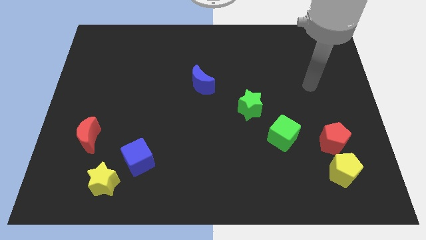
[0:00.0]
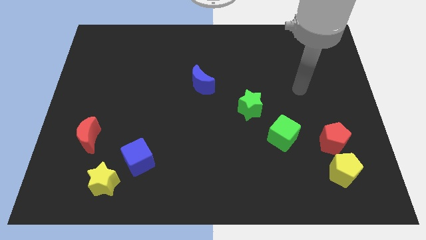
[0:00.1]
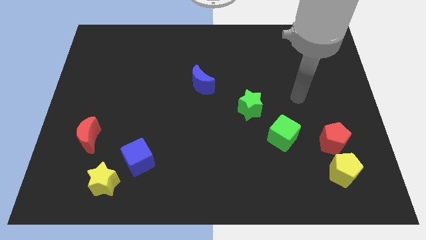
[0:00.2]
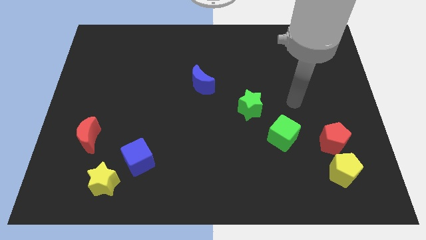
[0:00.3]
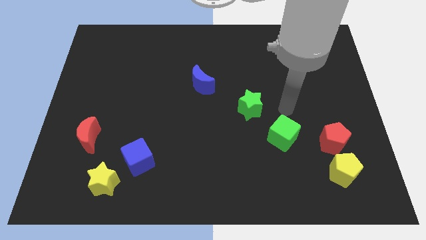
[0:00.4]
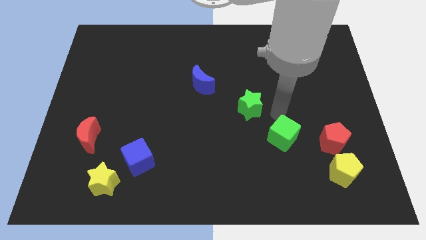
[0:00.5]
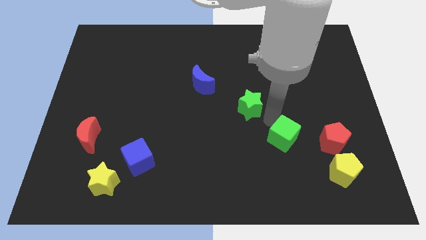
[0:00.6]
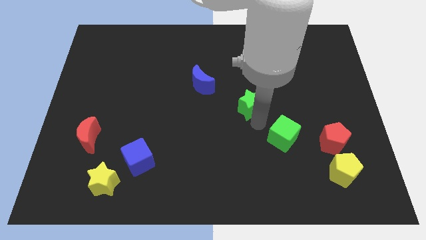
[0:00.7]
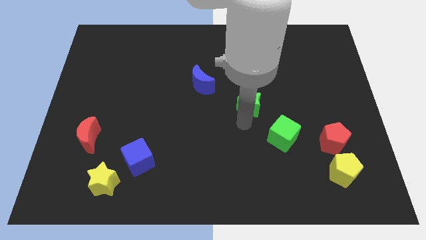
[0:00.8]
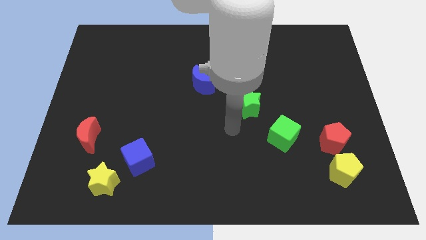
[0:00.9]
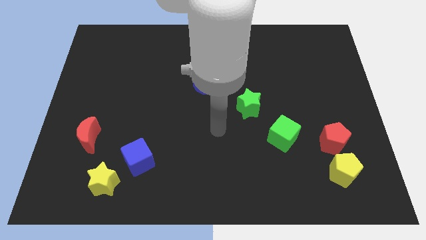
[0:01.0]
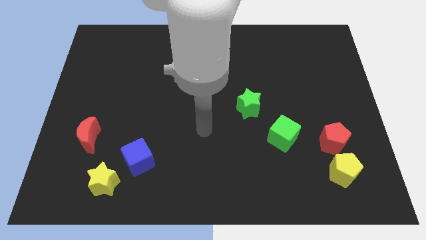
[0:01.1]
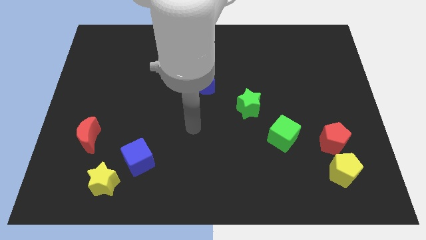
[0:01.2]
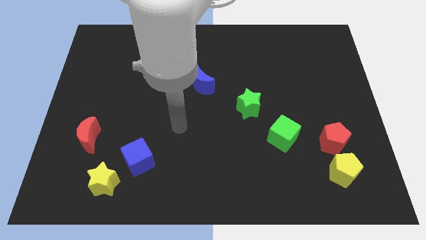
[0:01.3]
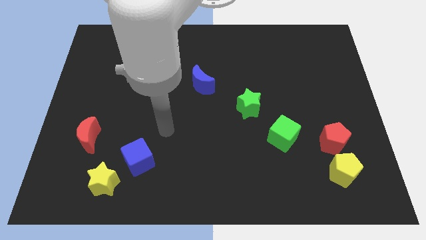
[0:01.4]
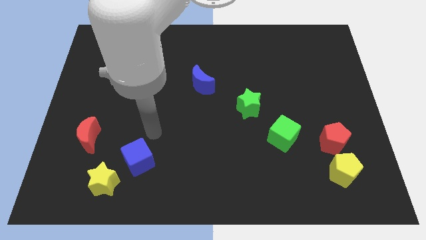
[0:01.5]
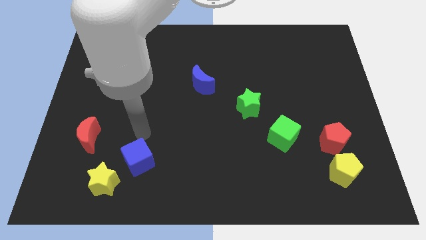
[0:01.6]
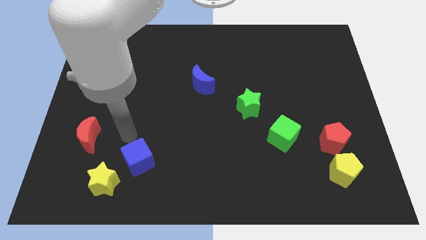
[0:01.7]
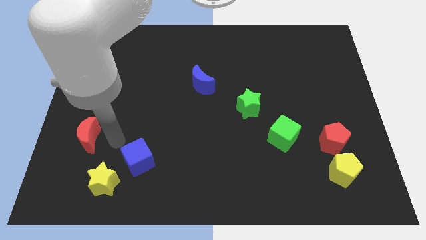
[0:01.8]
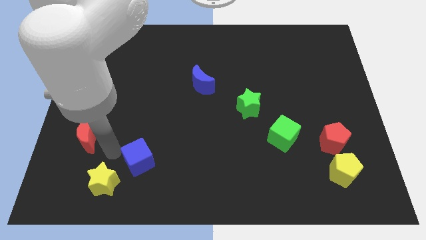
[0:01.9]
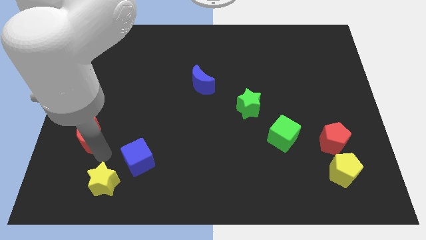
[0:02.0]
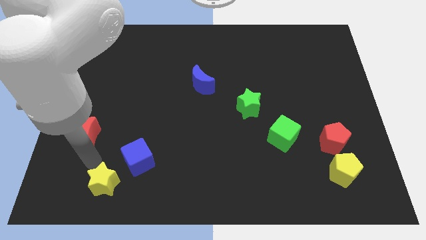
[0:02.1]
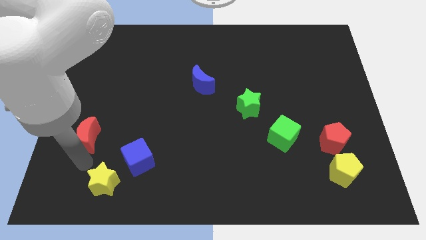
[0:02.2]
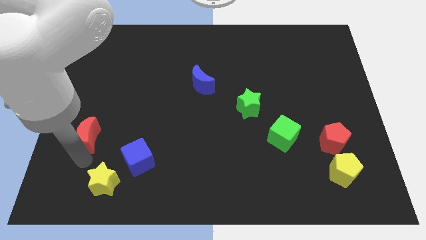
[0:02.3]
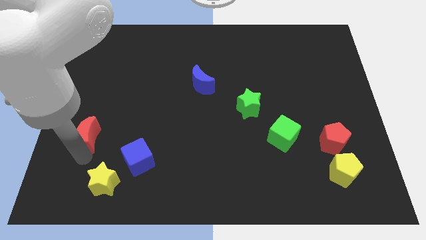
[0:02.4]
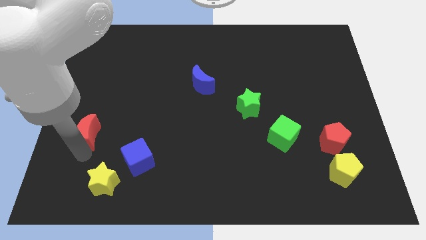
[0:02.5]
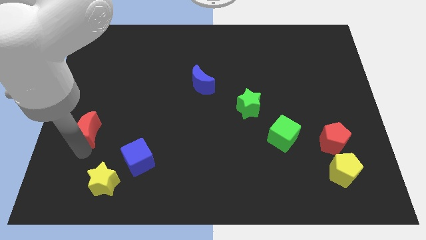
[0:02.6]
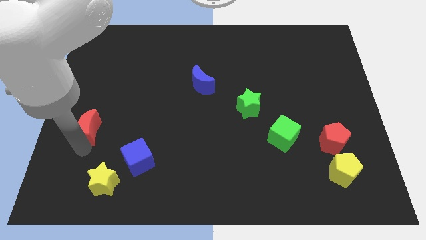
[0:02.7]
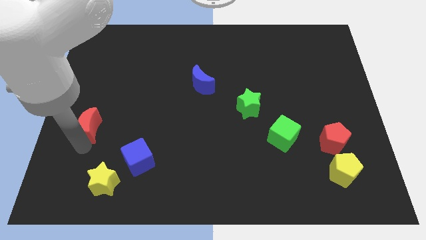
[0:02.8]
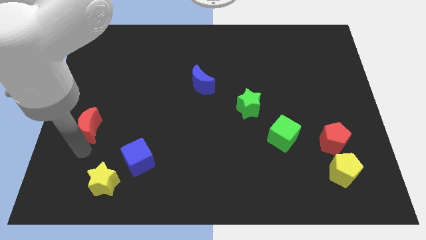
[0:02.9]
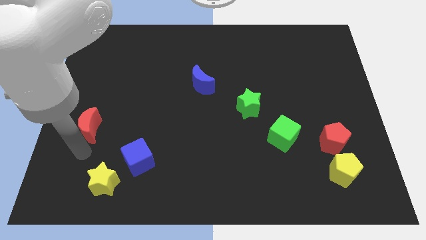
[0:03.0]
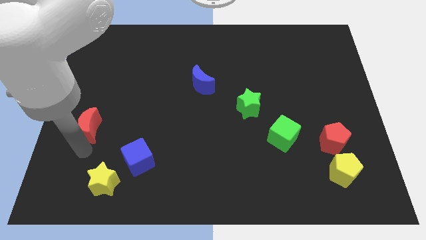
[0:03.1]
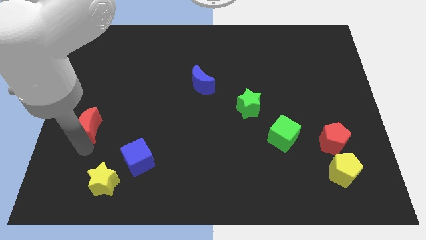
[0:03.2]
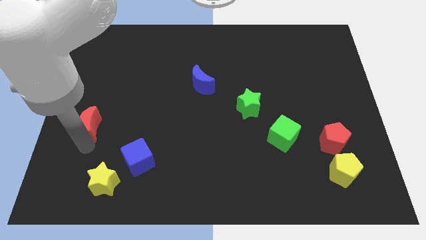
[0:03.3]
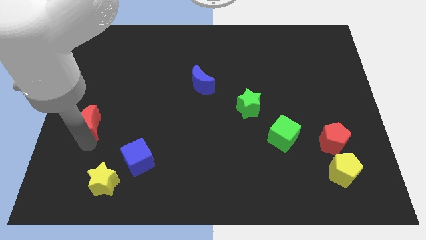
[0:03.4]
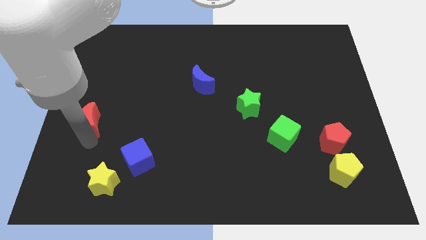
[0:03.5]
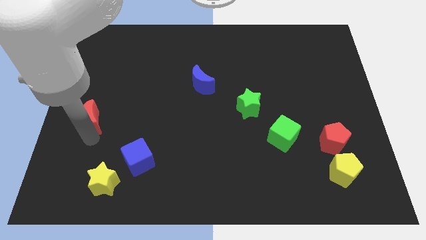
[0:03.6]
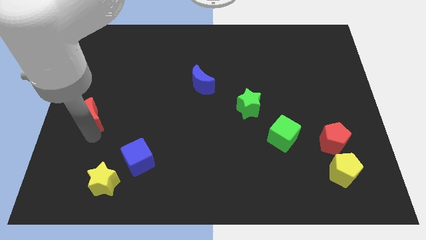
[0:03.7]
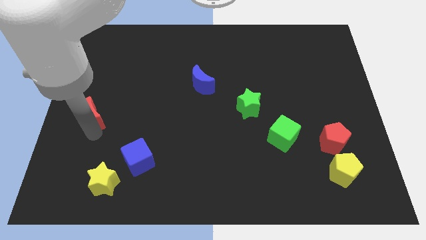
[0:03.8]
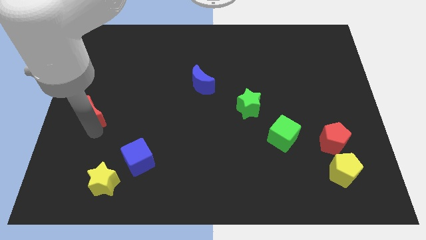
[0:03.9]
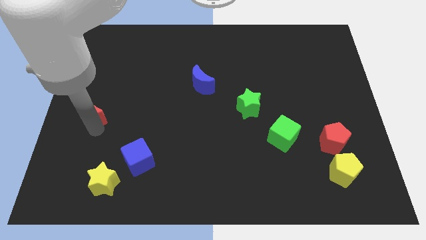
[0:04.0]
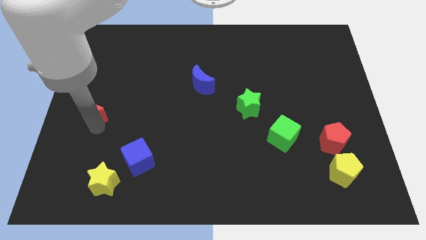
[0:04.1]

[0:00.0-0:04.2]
slide the red moon up a little

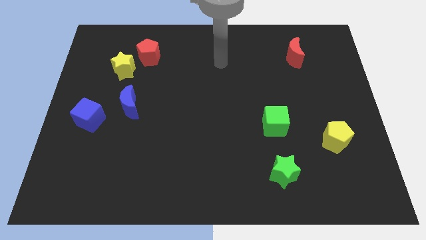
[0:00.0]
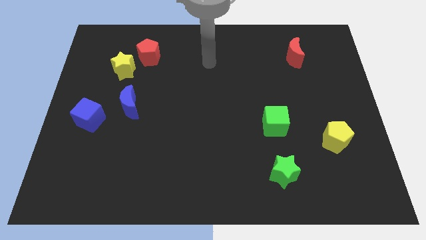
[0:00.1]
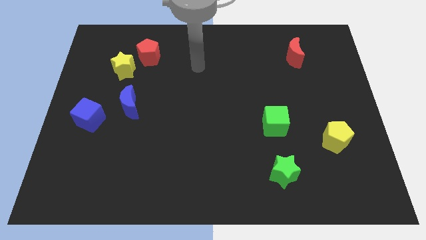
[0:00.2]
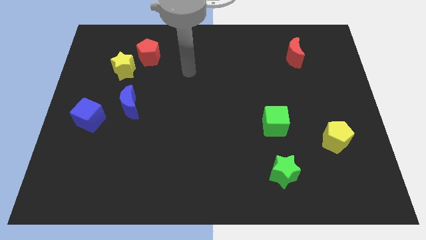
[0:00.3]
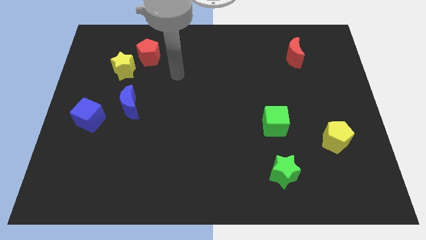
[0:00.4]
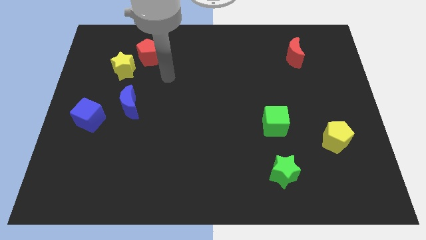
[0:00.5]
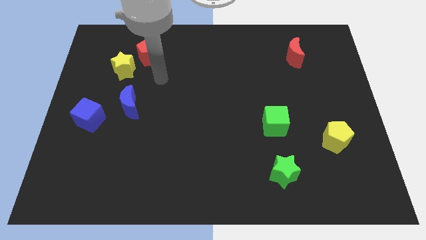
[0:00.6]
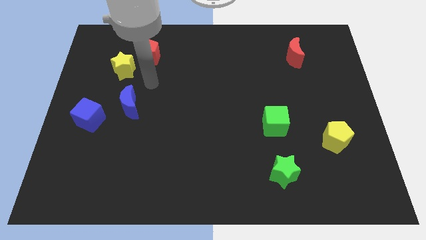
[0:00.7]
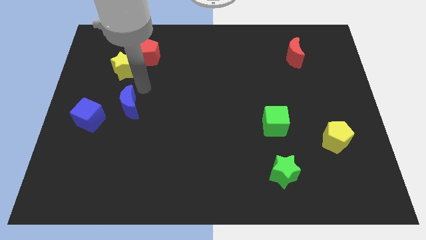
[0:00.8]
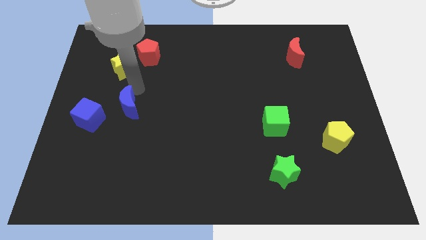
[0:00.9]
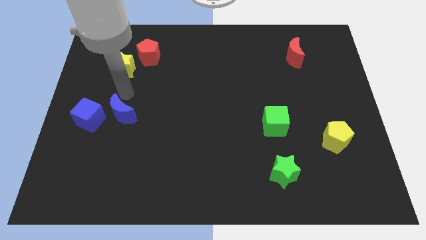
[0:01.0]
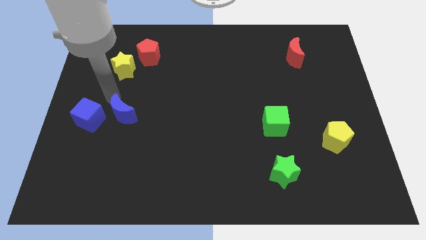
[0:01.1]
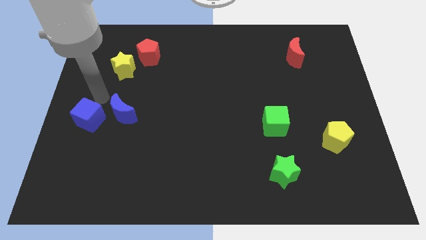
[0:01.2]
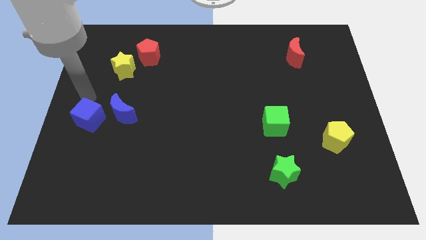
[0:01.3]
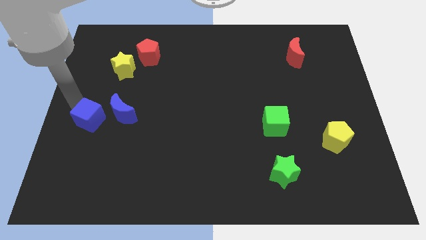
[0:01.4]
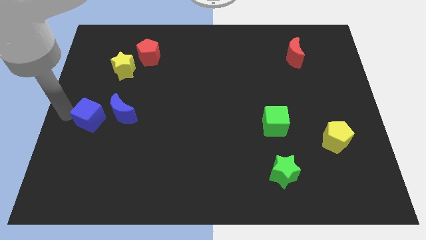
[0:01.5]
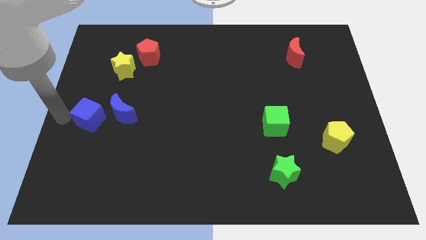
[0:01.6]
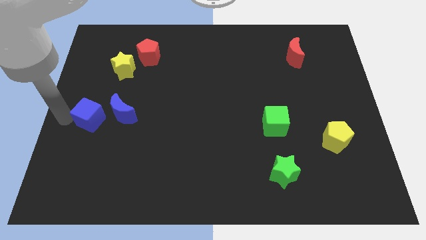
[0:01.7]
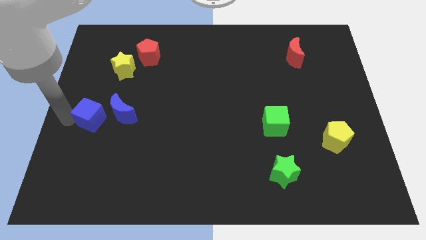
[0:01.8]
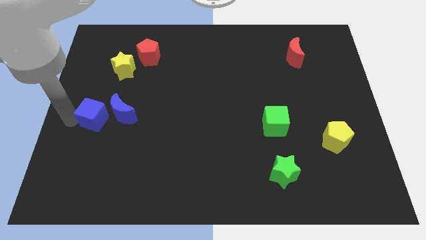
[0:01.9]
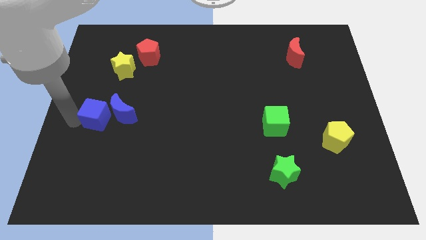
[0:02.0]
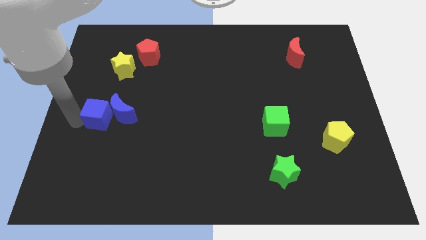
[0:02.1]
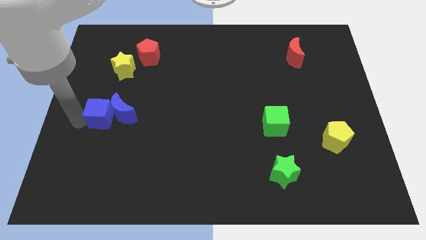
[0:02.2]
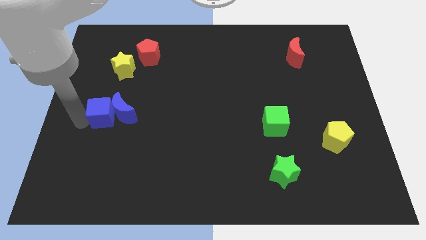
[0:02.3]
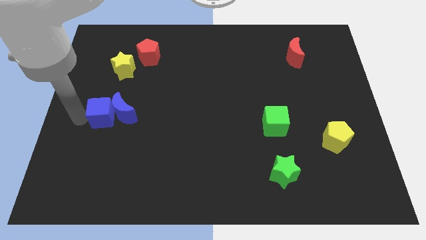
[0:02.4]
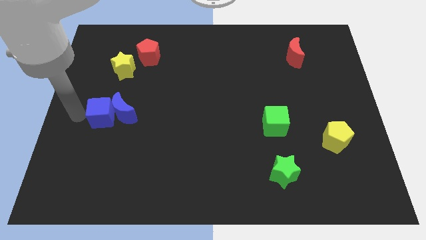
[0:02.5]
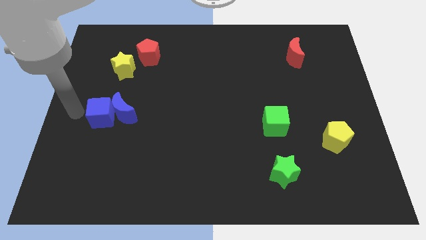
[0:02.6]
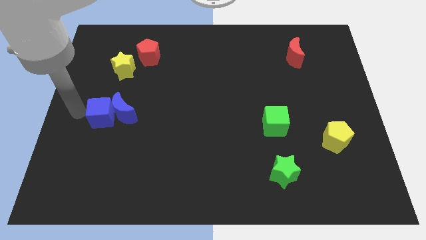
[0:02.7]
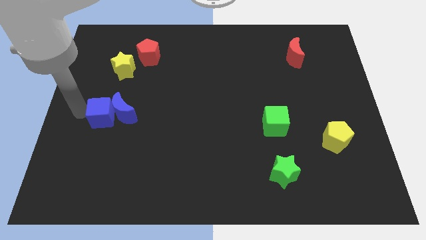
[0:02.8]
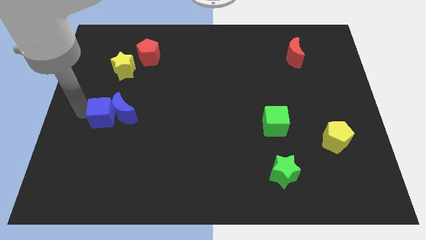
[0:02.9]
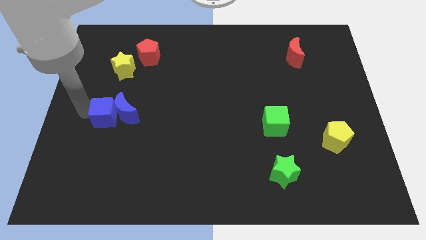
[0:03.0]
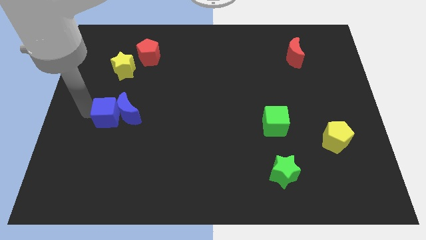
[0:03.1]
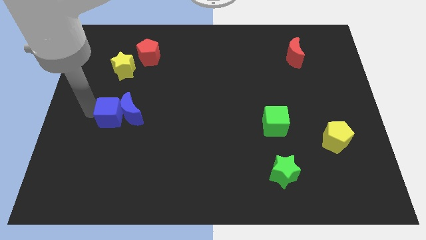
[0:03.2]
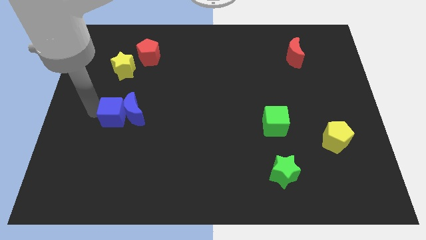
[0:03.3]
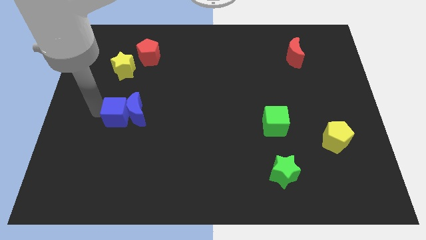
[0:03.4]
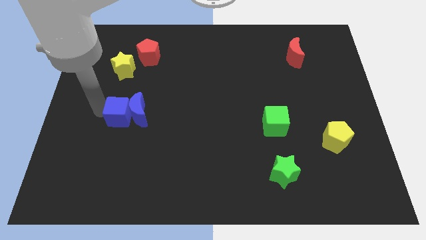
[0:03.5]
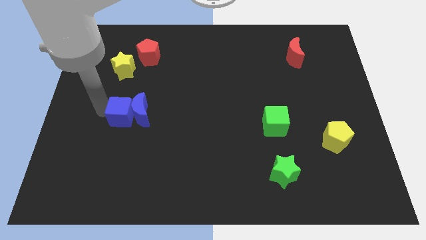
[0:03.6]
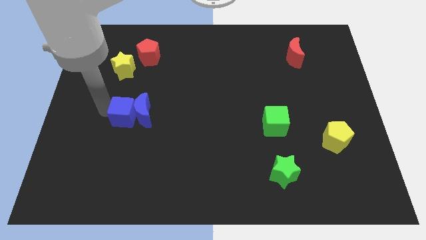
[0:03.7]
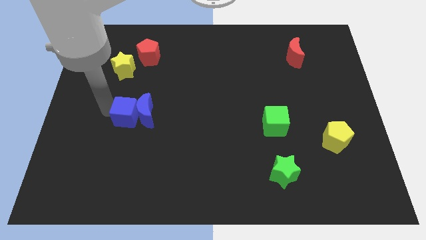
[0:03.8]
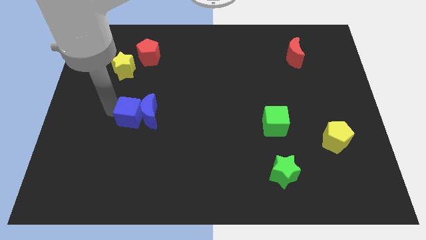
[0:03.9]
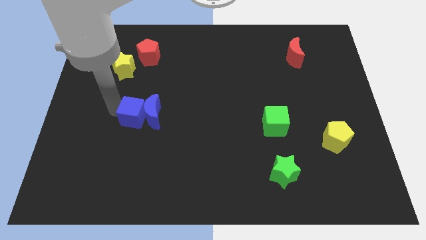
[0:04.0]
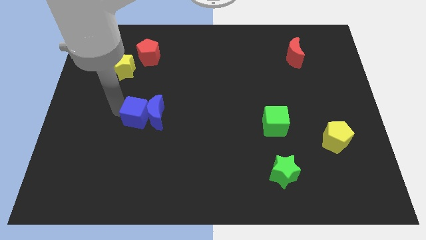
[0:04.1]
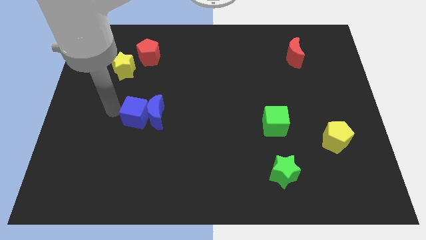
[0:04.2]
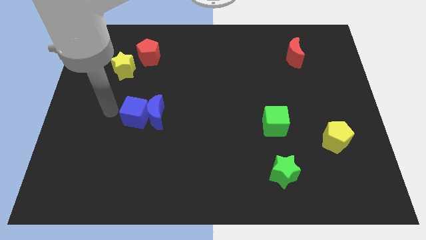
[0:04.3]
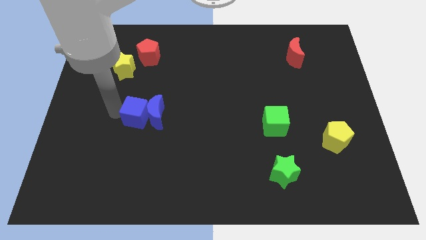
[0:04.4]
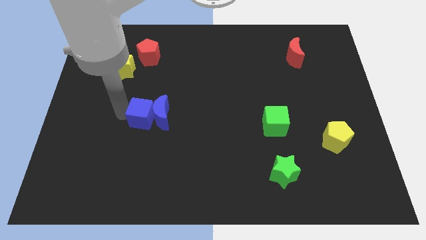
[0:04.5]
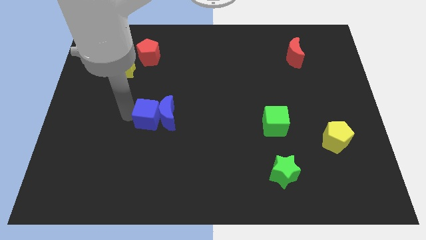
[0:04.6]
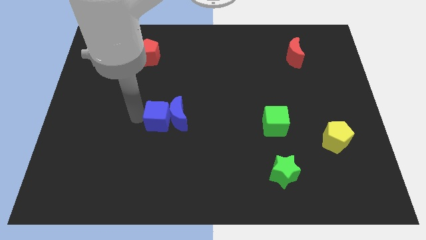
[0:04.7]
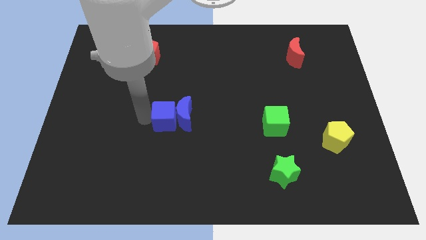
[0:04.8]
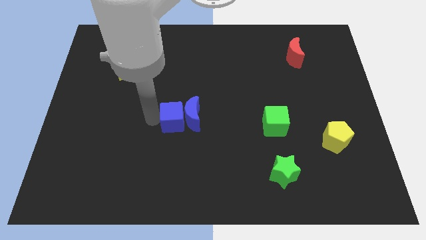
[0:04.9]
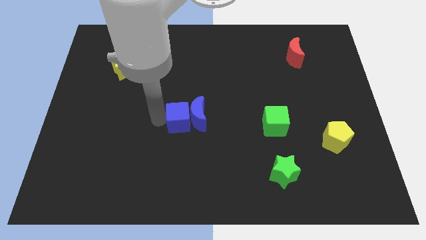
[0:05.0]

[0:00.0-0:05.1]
push the blue cube to the right
